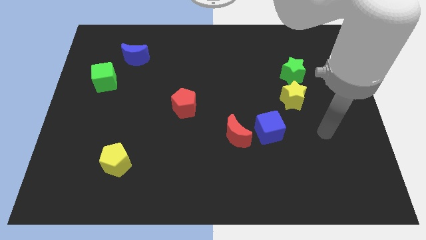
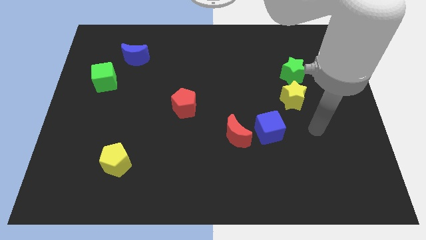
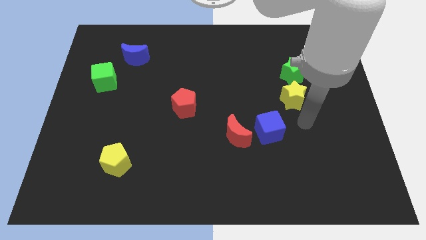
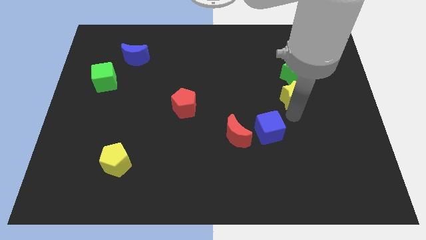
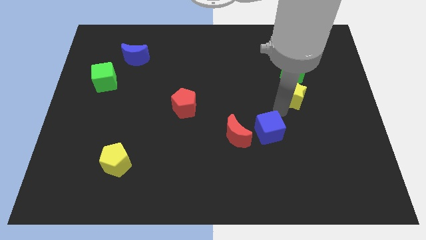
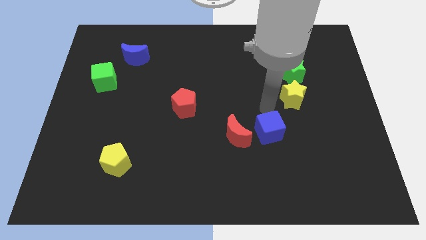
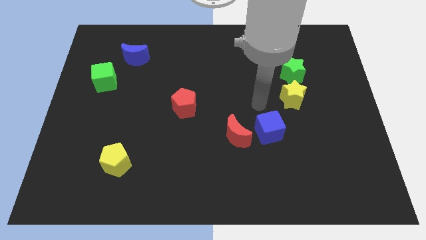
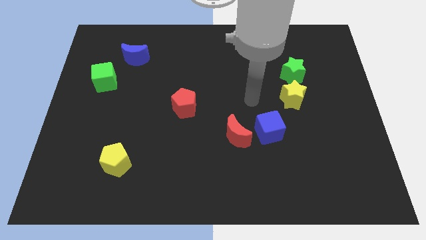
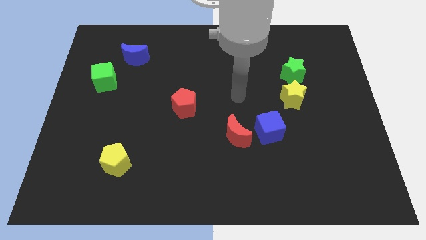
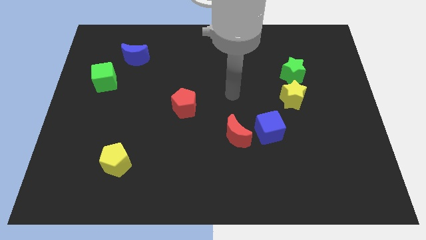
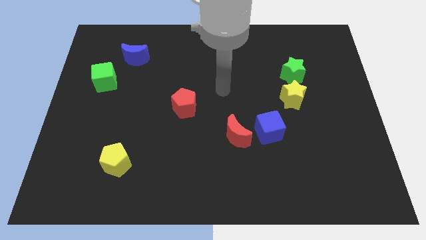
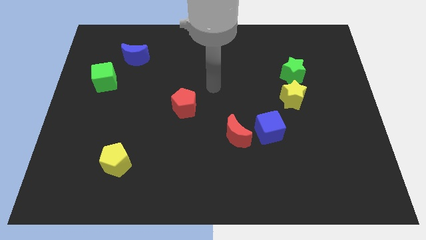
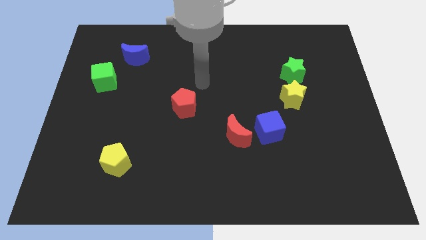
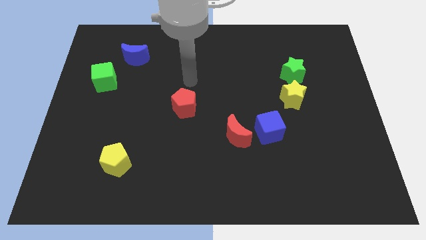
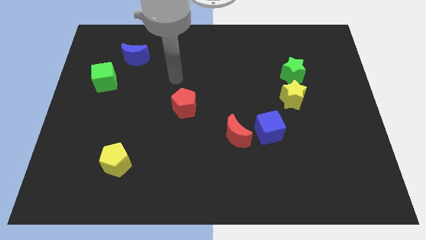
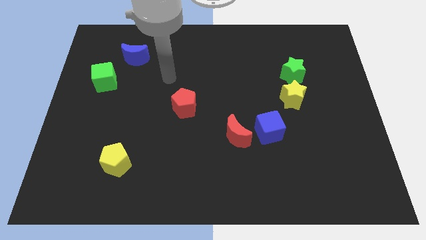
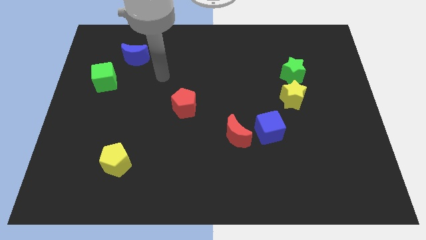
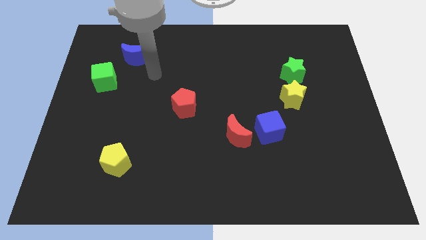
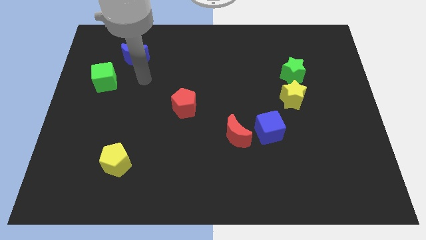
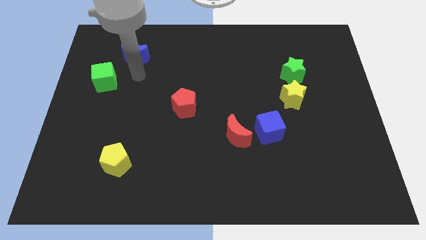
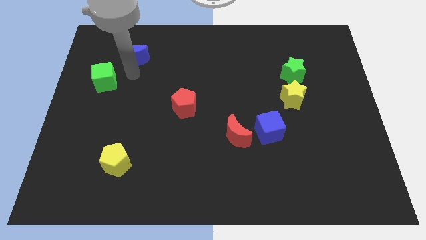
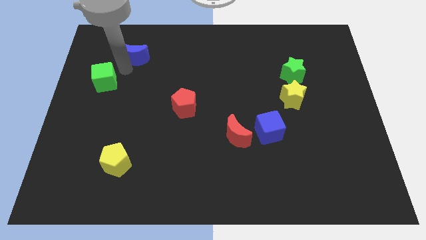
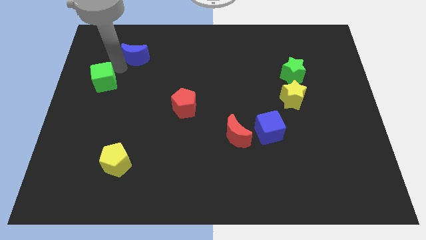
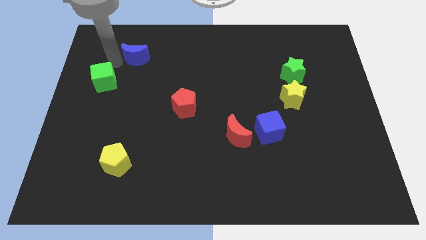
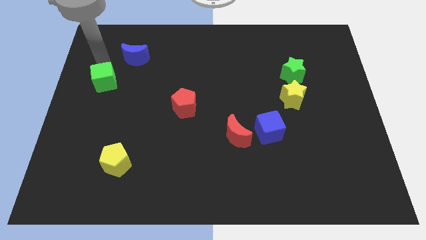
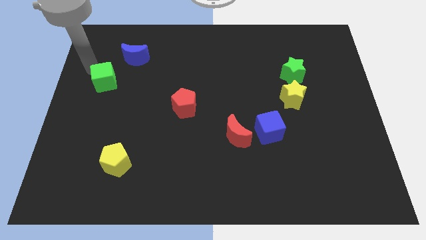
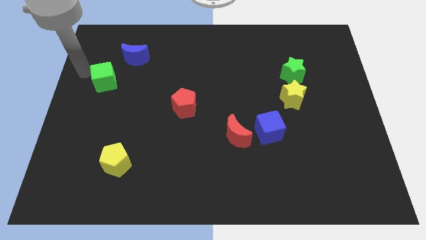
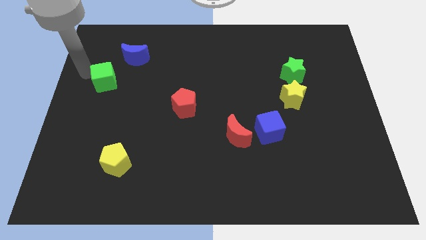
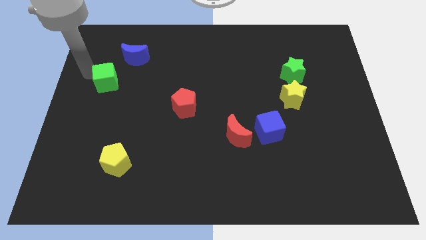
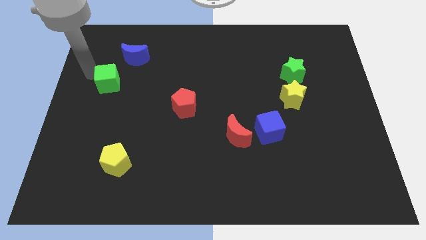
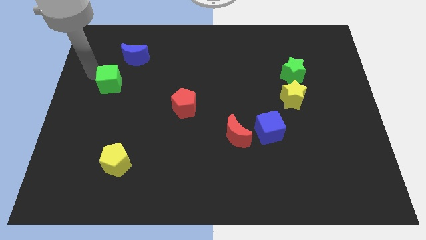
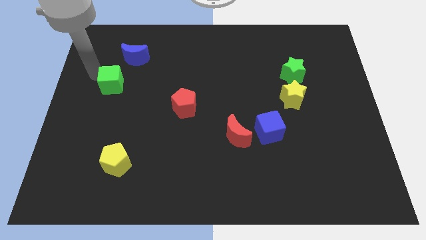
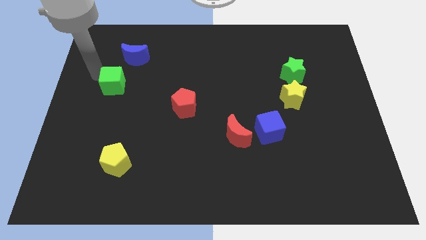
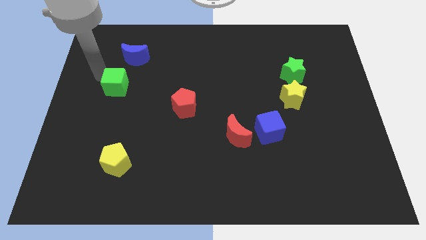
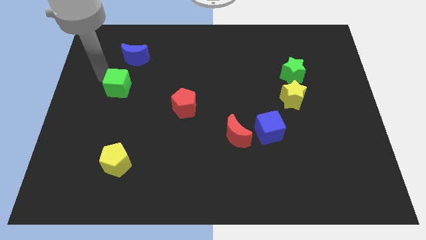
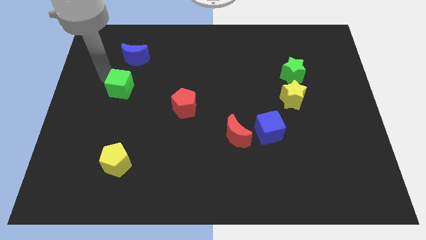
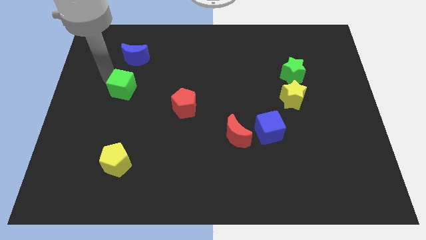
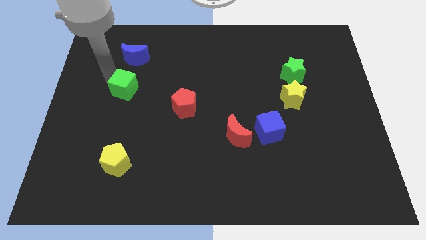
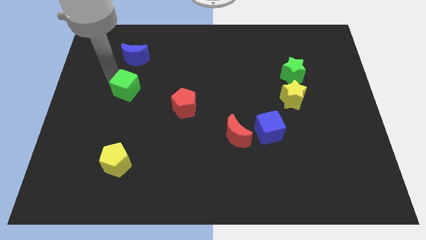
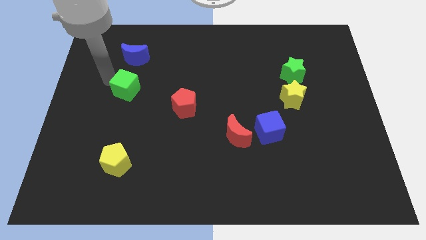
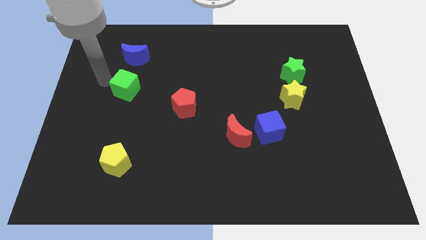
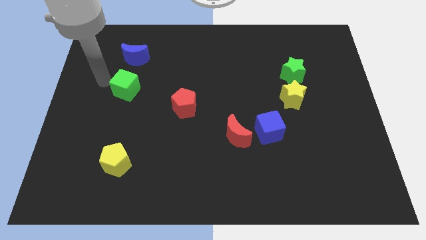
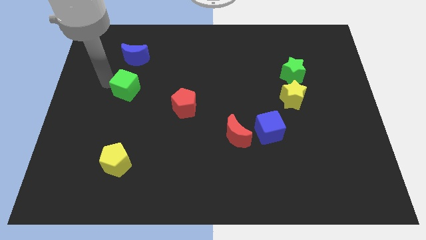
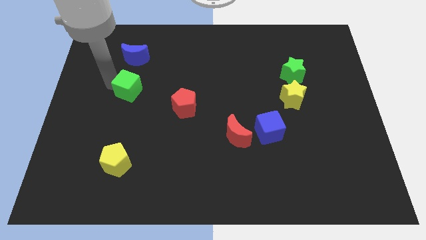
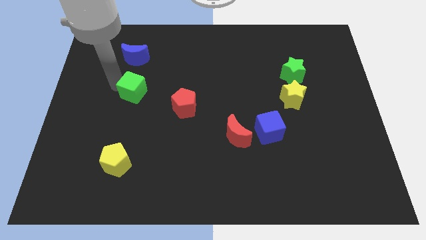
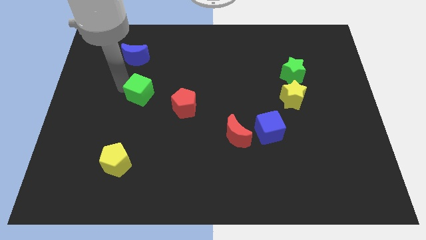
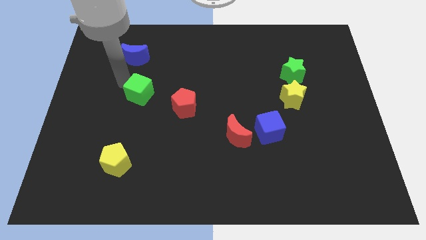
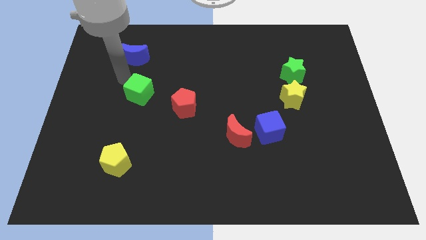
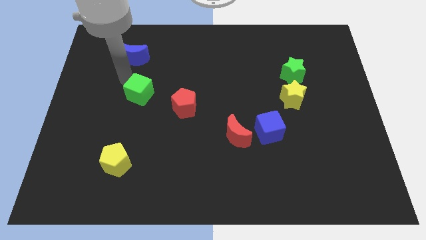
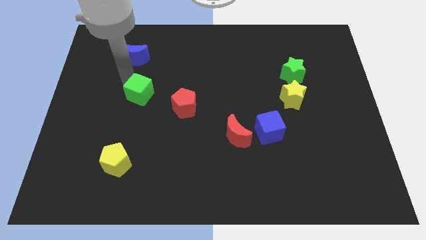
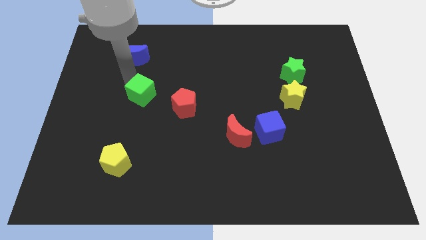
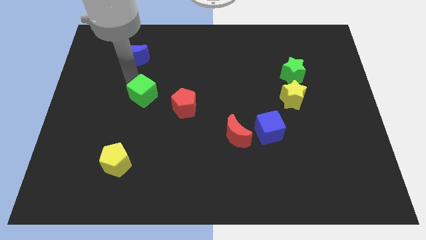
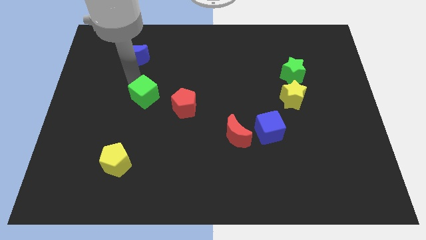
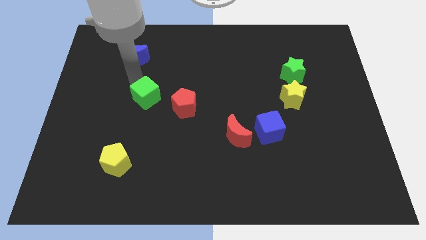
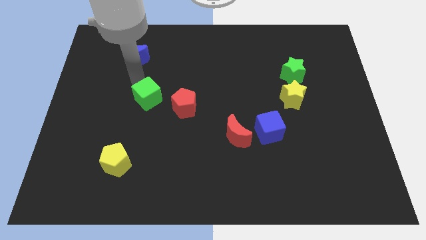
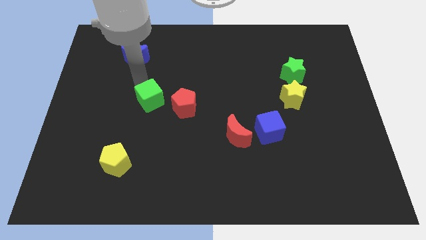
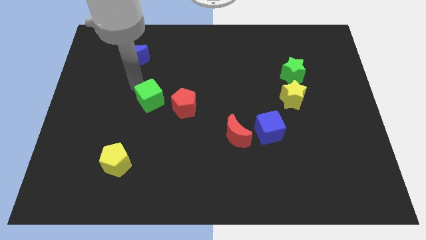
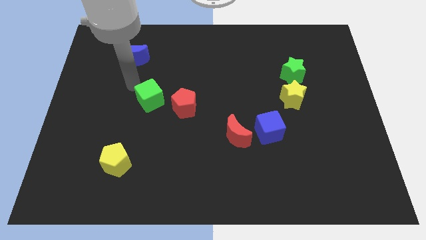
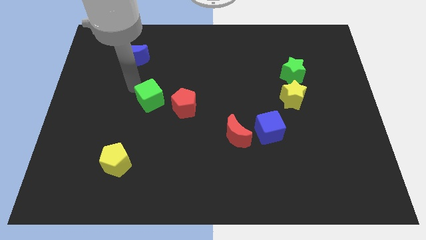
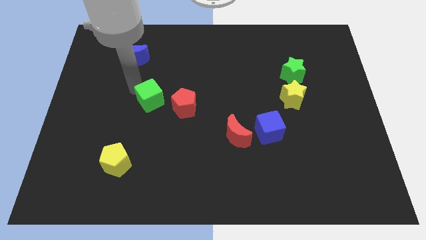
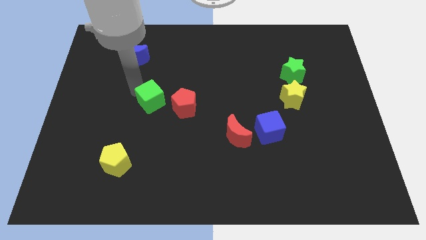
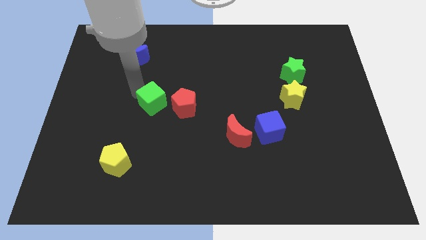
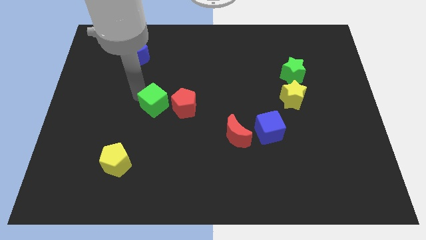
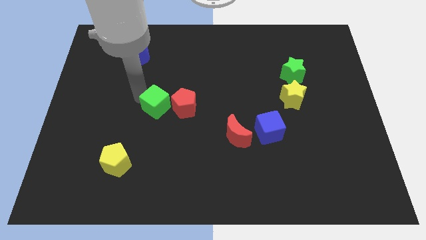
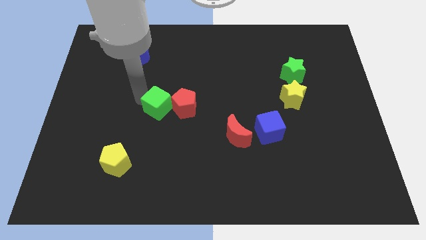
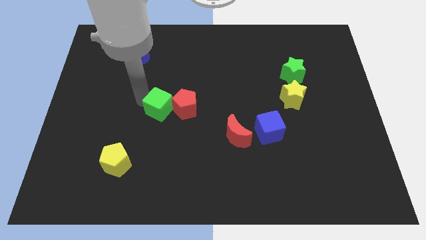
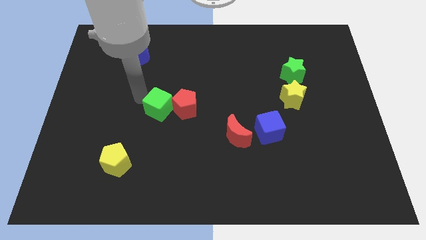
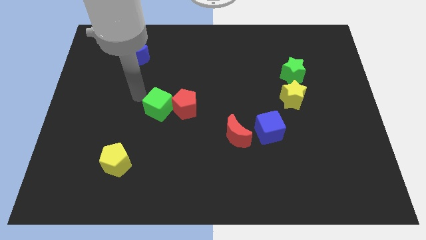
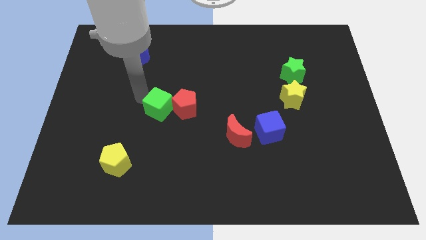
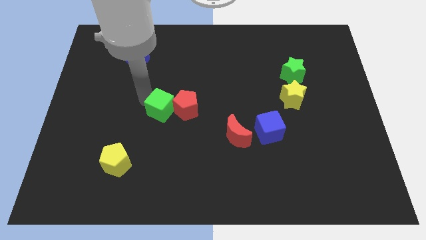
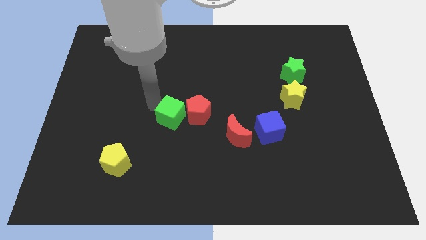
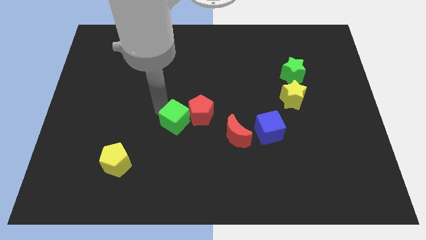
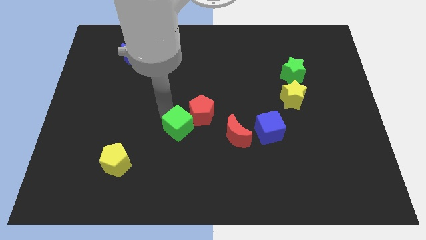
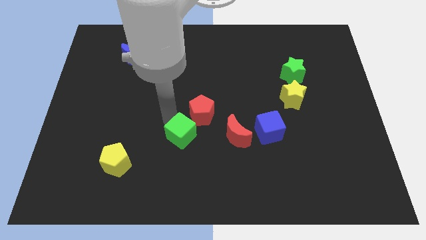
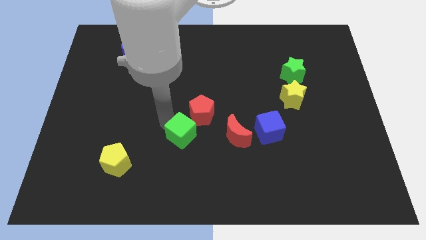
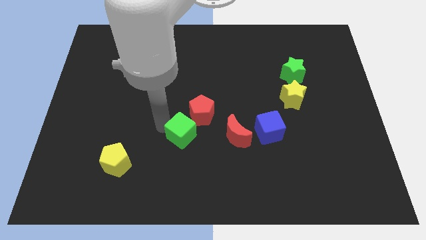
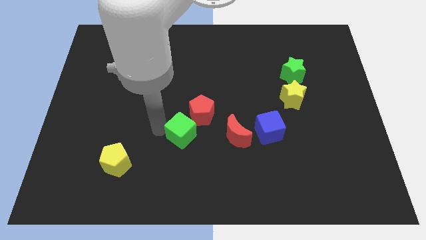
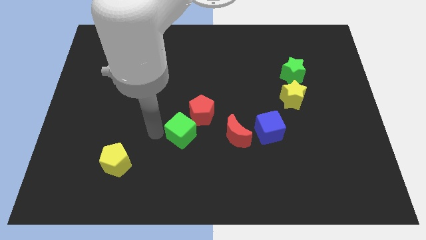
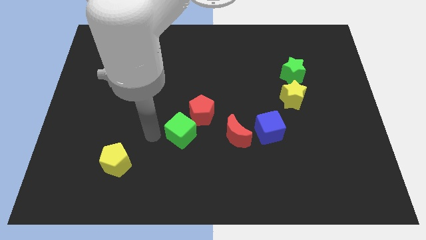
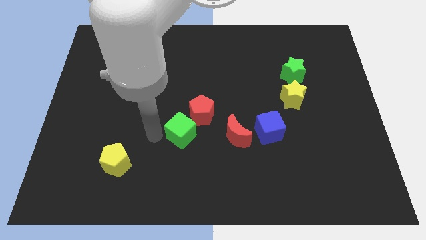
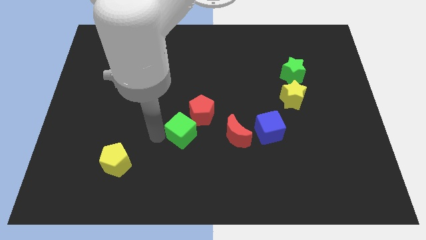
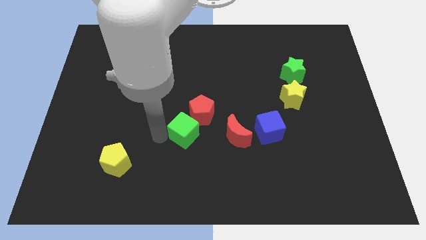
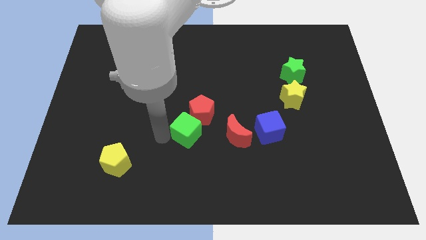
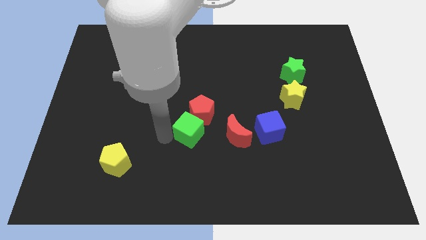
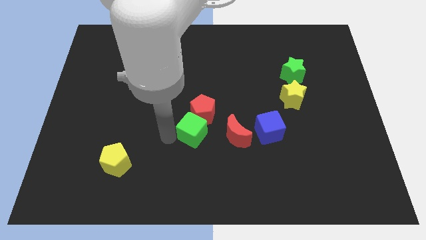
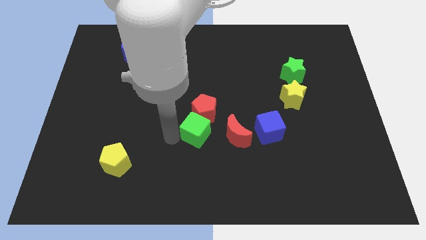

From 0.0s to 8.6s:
slide the green cube to the left side of the blue cube
